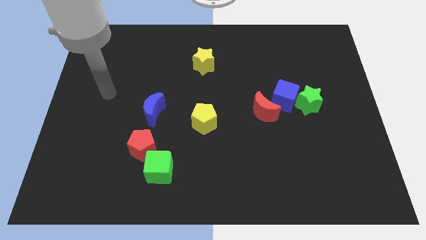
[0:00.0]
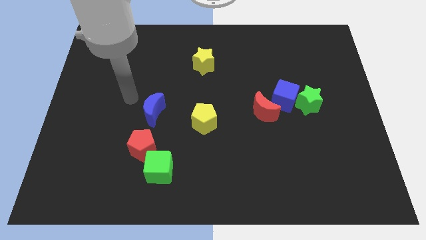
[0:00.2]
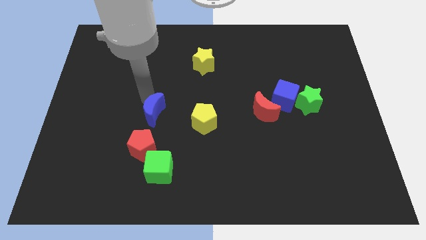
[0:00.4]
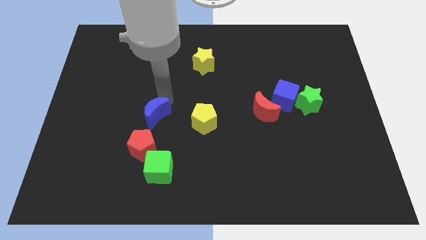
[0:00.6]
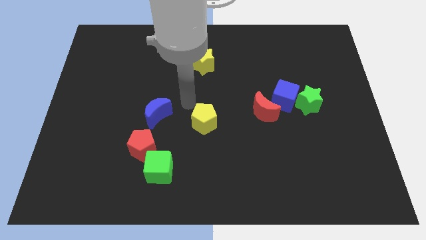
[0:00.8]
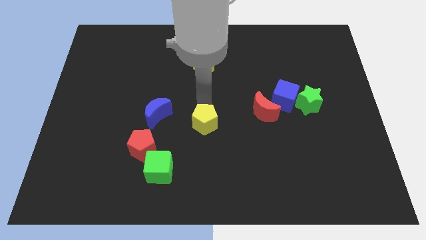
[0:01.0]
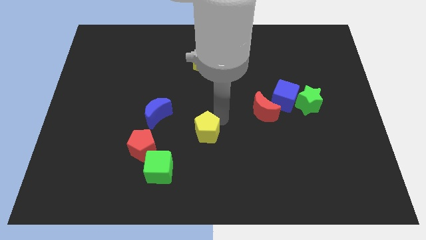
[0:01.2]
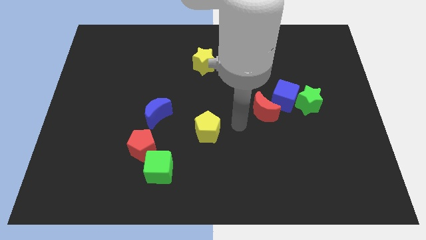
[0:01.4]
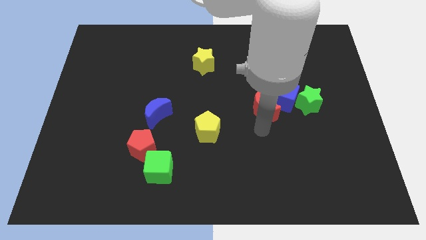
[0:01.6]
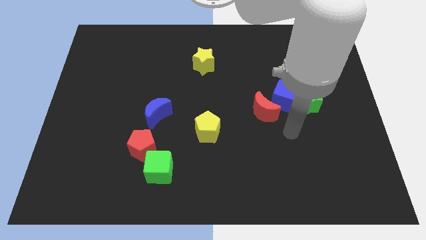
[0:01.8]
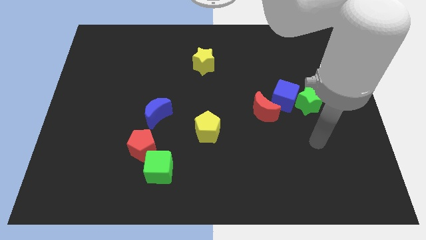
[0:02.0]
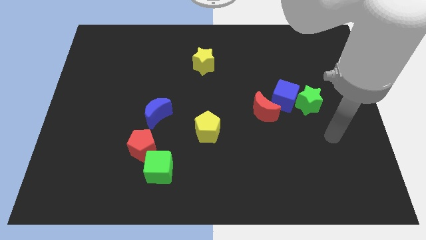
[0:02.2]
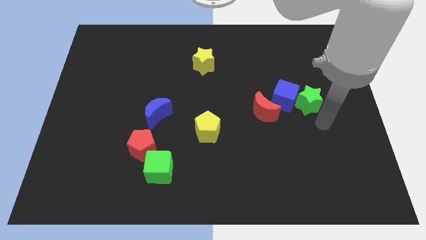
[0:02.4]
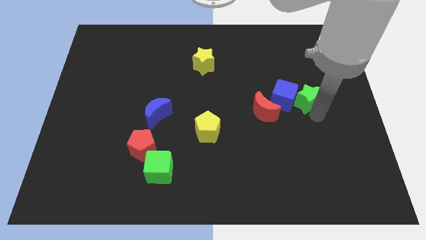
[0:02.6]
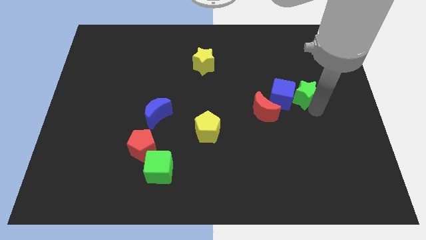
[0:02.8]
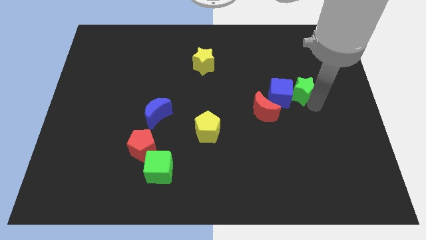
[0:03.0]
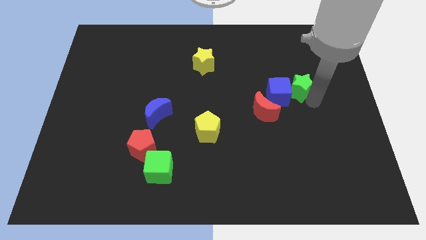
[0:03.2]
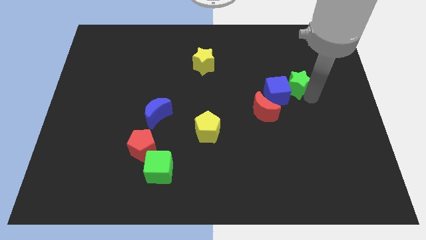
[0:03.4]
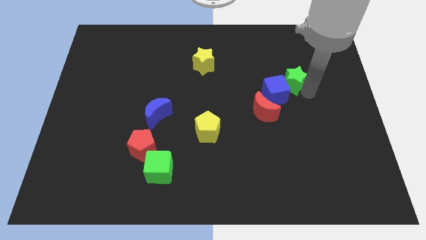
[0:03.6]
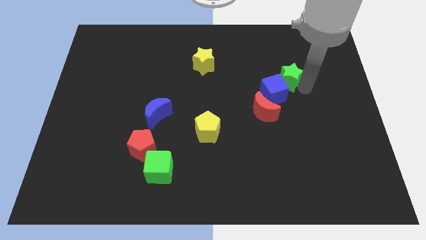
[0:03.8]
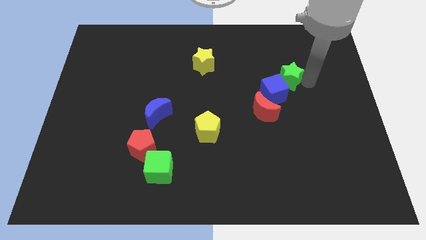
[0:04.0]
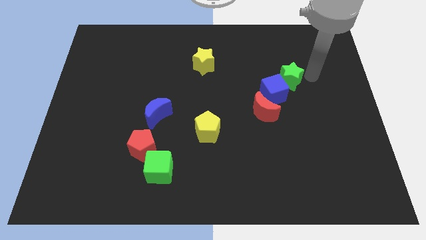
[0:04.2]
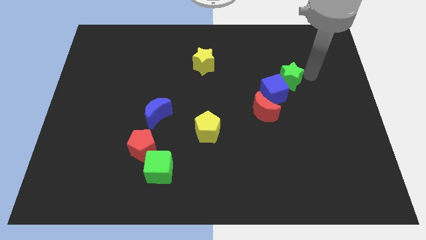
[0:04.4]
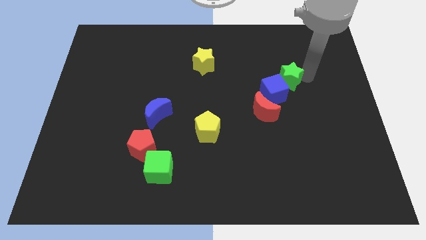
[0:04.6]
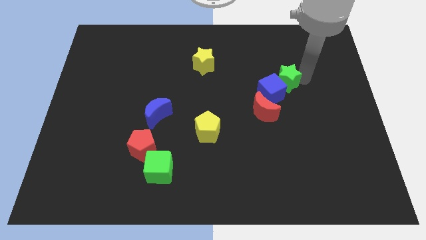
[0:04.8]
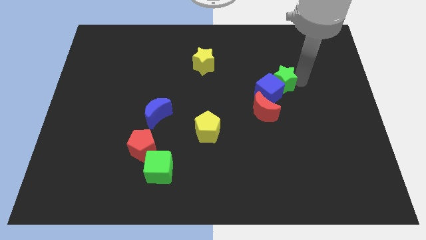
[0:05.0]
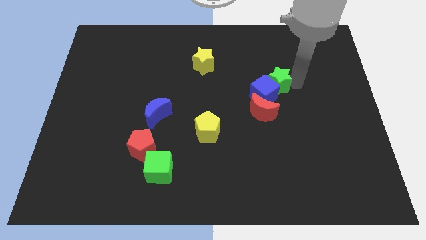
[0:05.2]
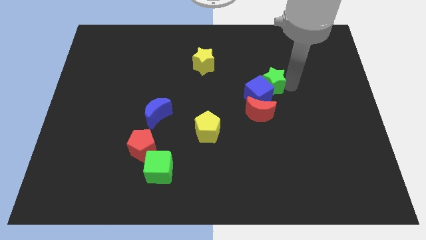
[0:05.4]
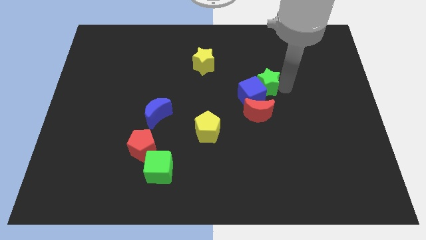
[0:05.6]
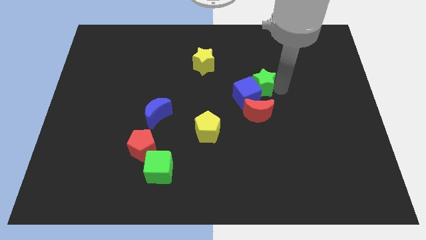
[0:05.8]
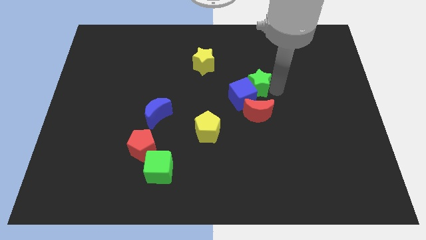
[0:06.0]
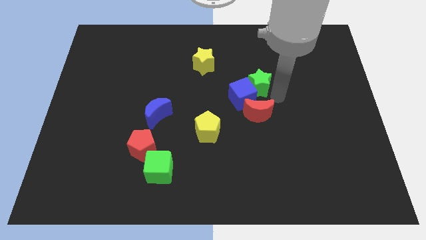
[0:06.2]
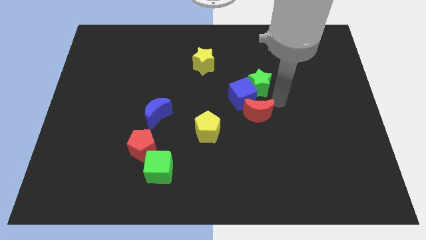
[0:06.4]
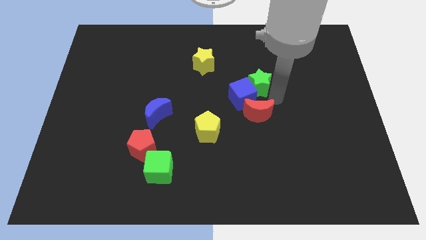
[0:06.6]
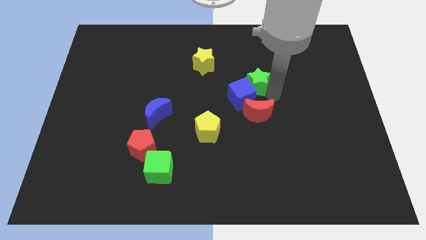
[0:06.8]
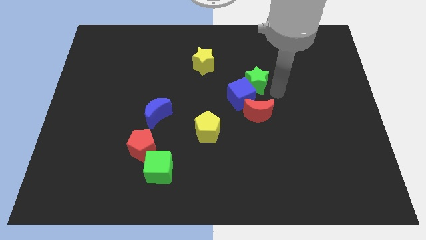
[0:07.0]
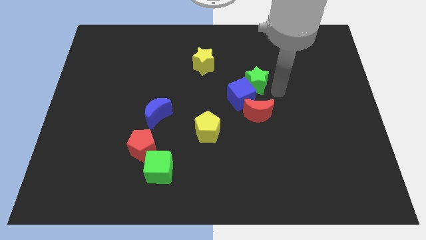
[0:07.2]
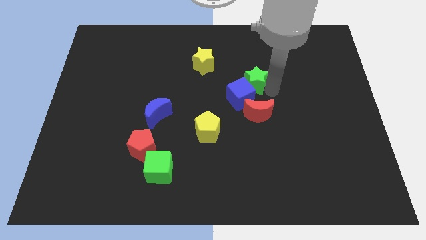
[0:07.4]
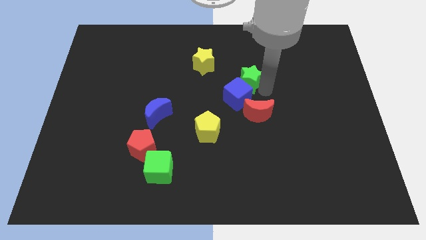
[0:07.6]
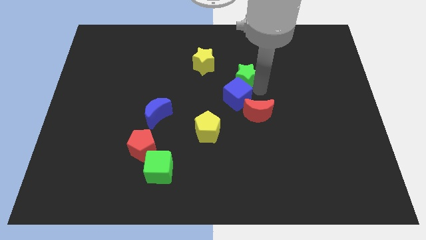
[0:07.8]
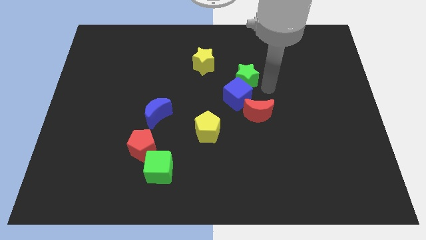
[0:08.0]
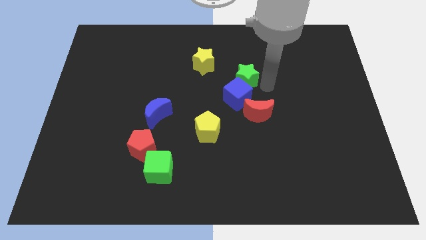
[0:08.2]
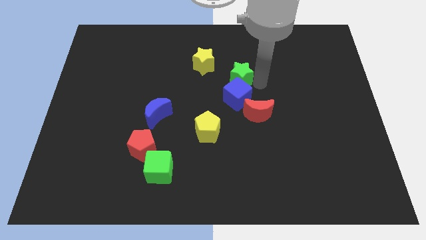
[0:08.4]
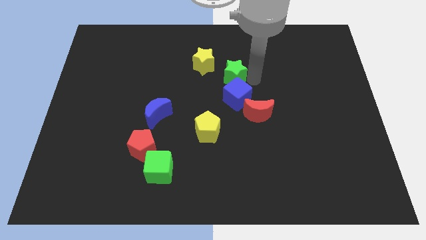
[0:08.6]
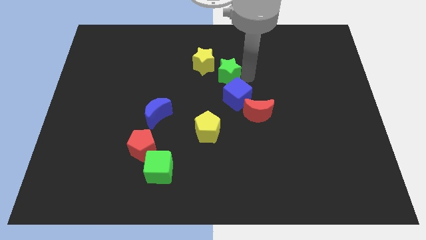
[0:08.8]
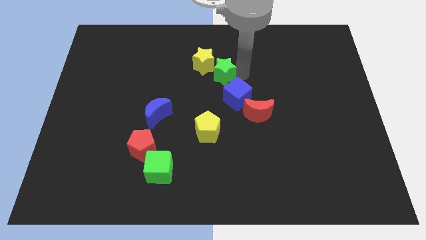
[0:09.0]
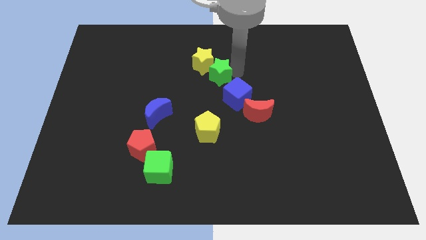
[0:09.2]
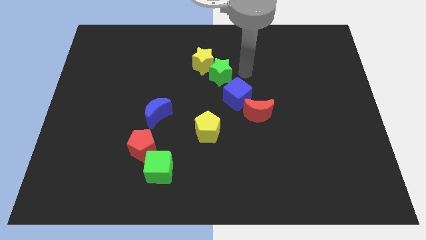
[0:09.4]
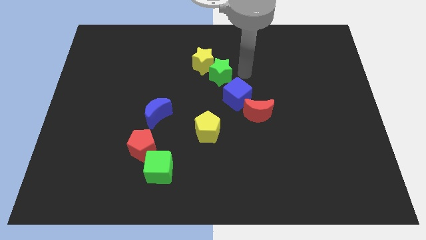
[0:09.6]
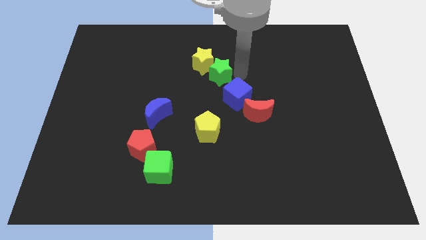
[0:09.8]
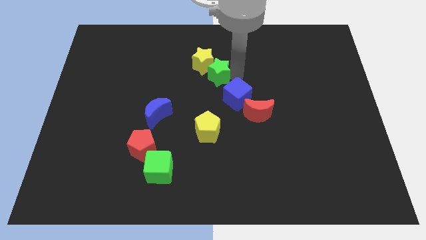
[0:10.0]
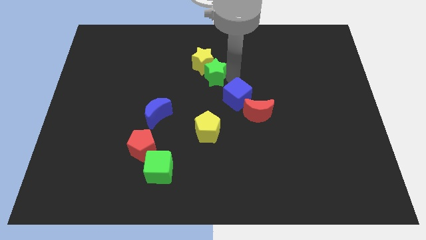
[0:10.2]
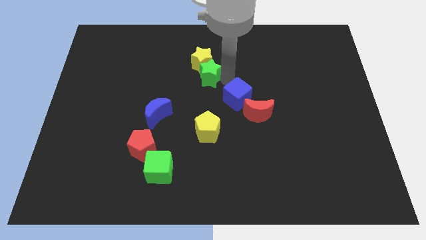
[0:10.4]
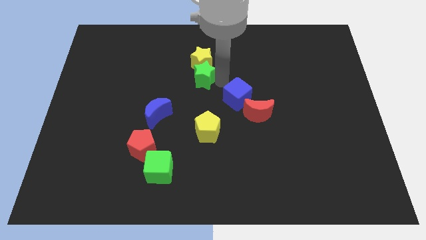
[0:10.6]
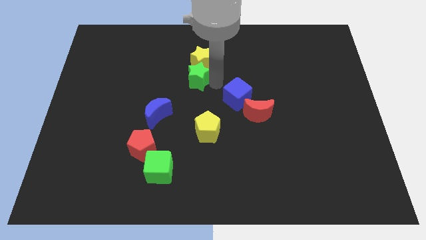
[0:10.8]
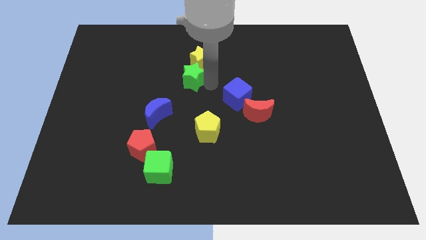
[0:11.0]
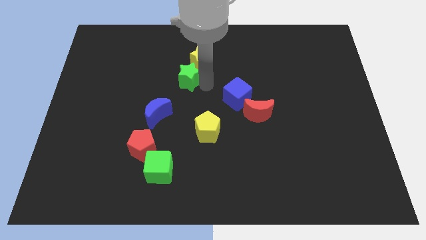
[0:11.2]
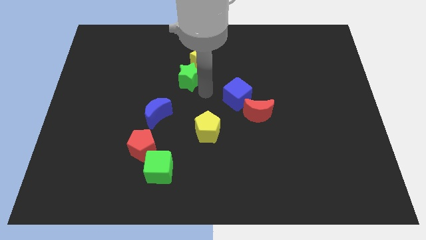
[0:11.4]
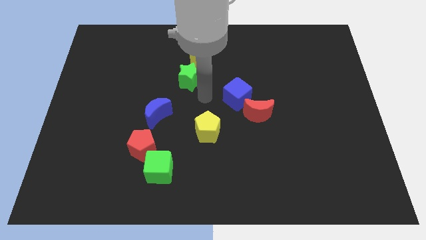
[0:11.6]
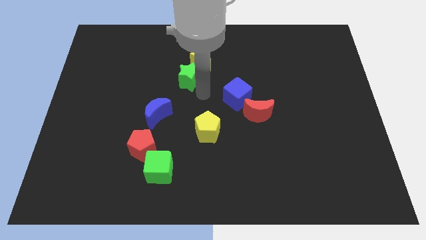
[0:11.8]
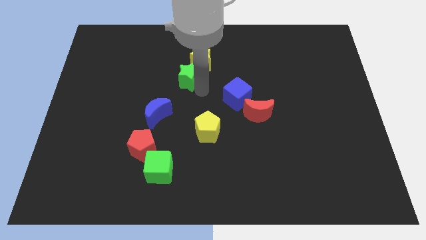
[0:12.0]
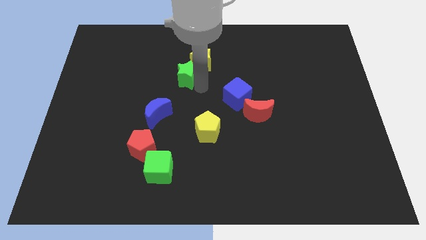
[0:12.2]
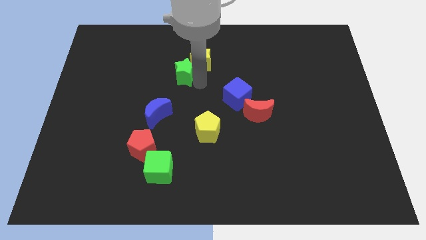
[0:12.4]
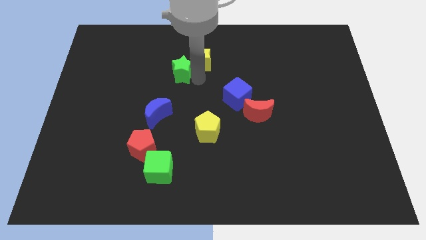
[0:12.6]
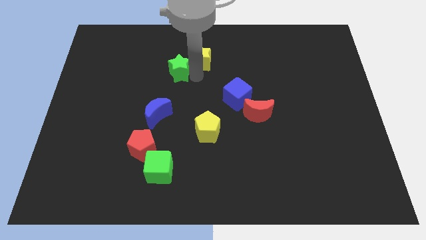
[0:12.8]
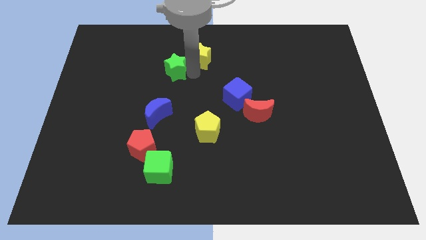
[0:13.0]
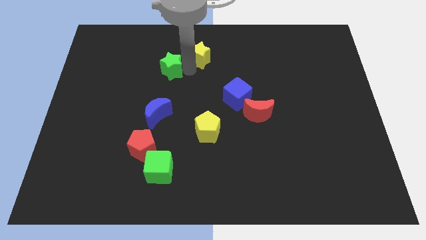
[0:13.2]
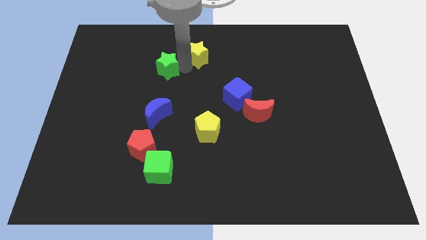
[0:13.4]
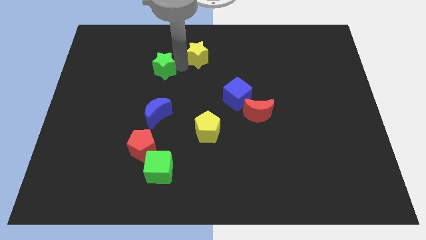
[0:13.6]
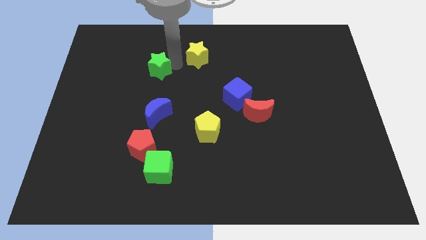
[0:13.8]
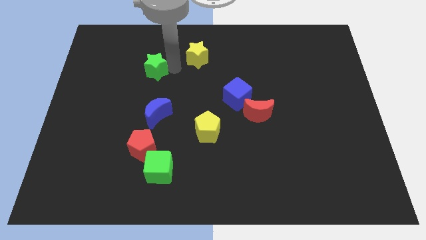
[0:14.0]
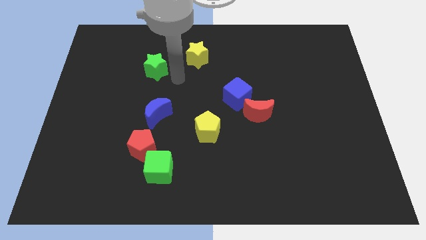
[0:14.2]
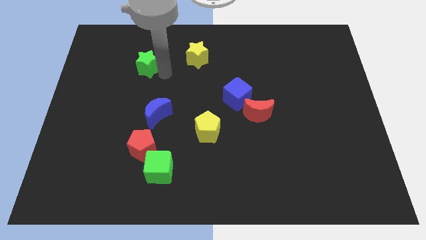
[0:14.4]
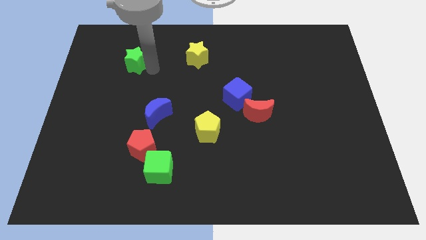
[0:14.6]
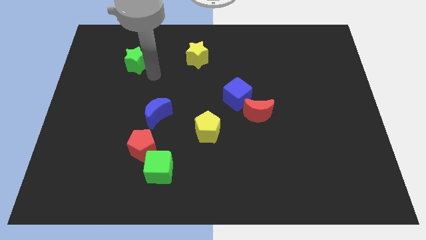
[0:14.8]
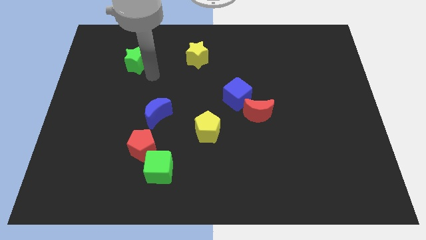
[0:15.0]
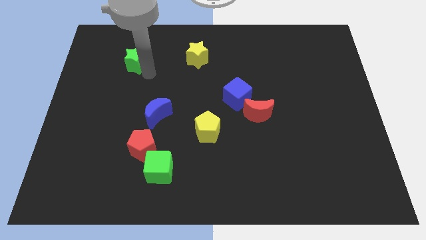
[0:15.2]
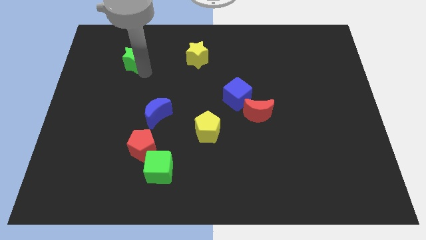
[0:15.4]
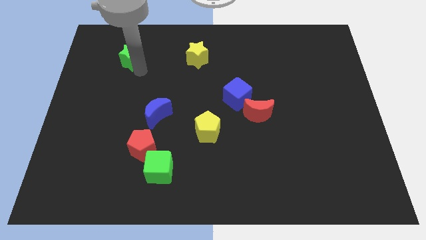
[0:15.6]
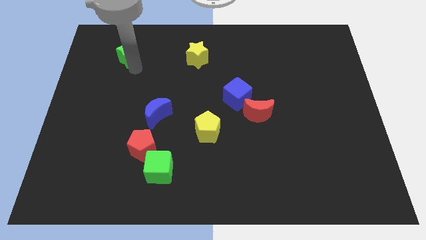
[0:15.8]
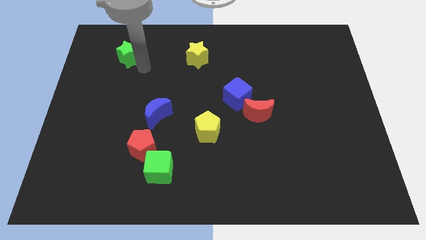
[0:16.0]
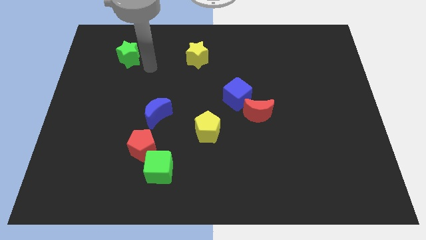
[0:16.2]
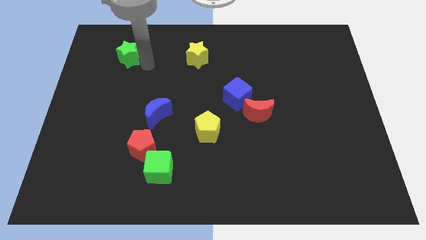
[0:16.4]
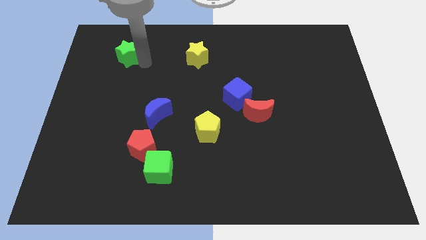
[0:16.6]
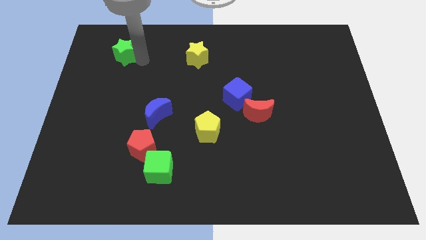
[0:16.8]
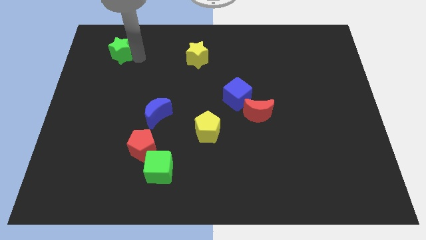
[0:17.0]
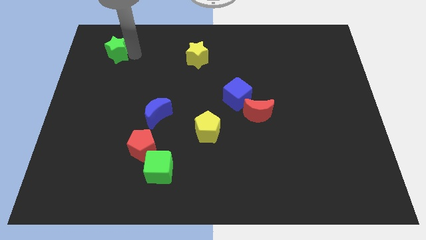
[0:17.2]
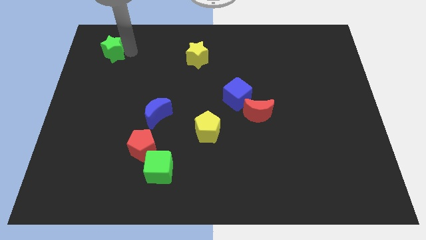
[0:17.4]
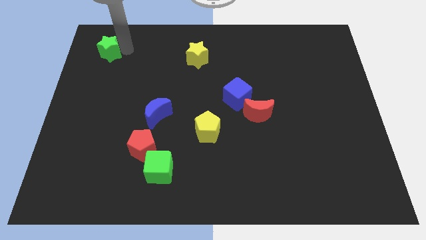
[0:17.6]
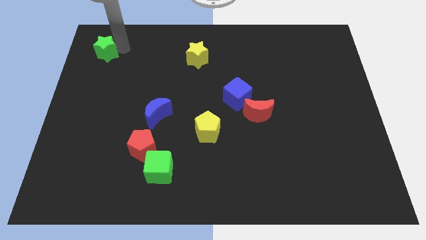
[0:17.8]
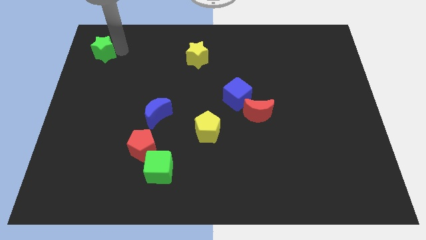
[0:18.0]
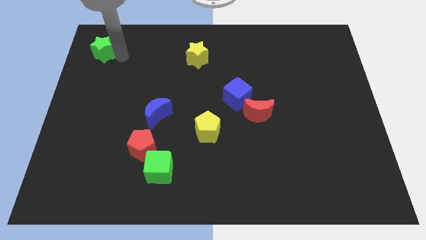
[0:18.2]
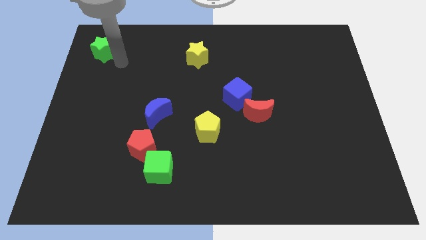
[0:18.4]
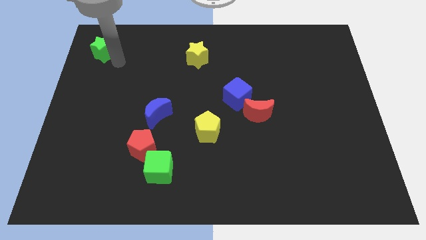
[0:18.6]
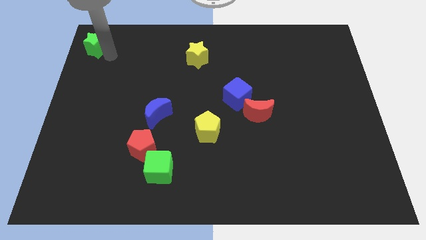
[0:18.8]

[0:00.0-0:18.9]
put the green star to the top left corner
